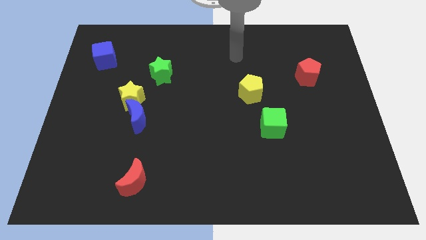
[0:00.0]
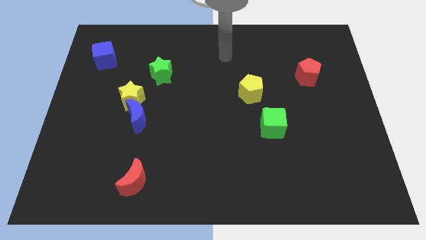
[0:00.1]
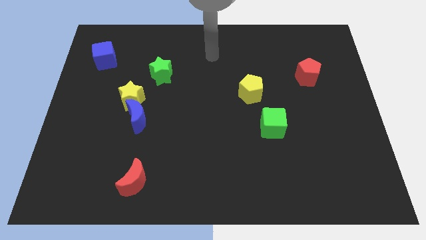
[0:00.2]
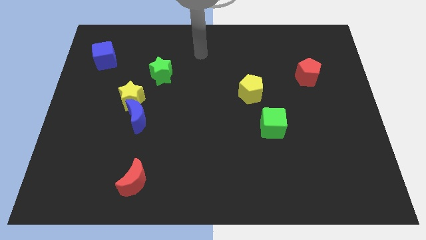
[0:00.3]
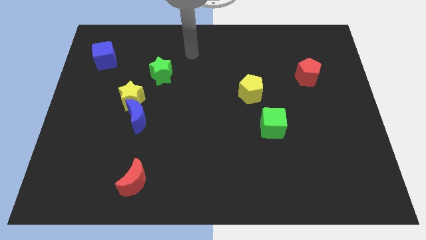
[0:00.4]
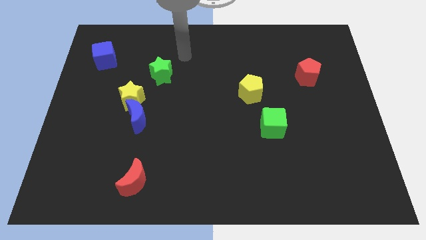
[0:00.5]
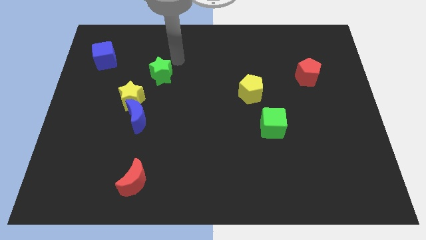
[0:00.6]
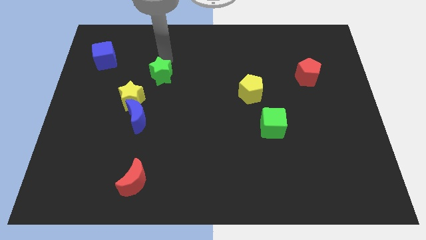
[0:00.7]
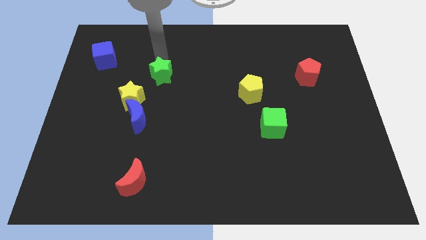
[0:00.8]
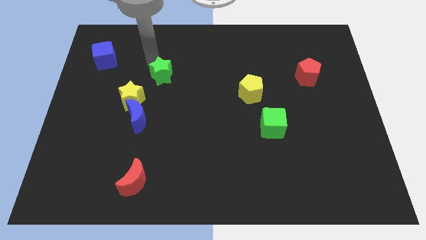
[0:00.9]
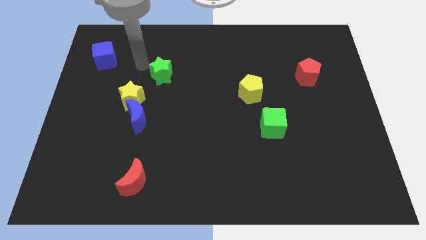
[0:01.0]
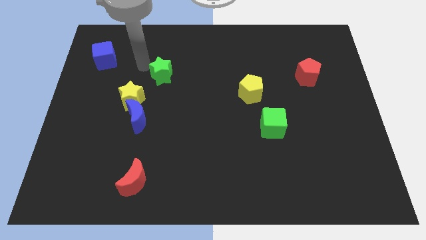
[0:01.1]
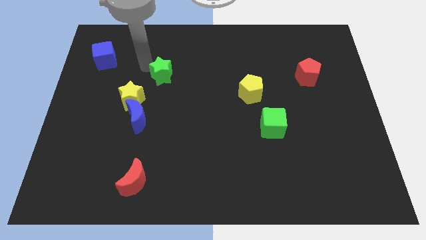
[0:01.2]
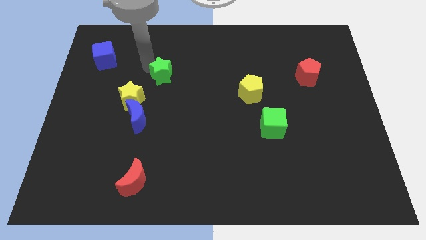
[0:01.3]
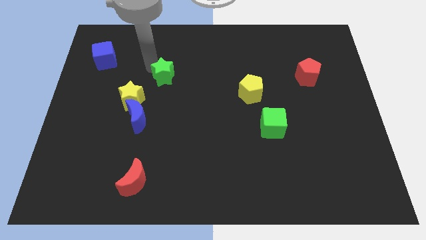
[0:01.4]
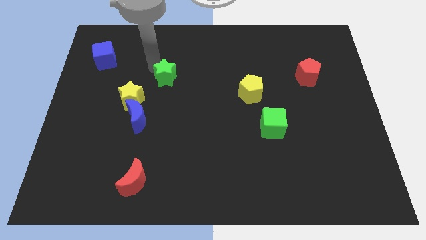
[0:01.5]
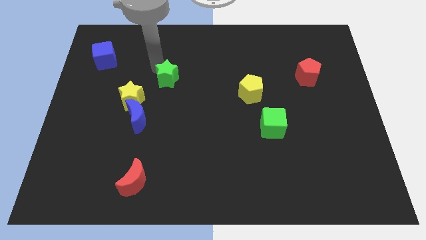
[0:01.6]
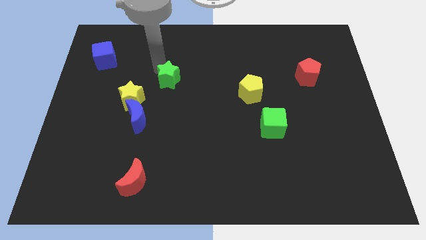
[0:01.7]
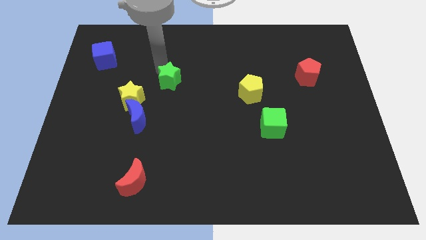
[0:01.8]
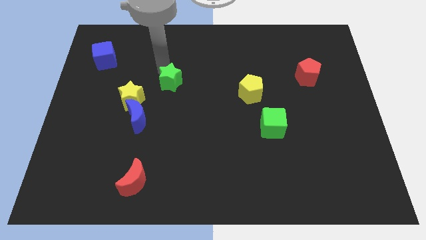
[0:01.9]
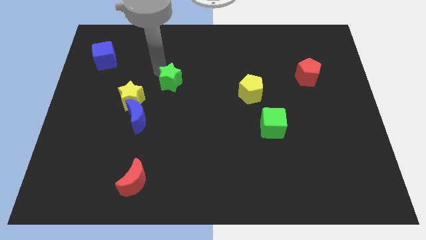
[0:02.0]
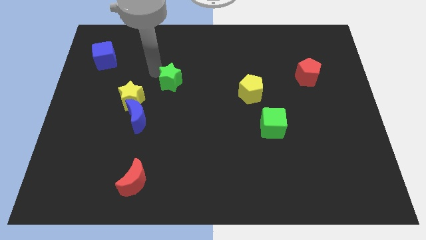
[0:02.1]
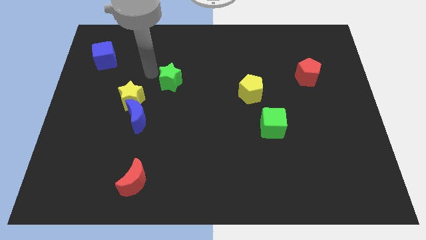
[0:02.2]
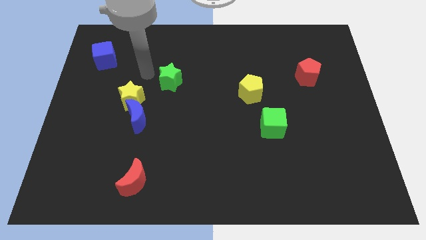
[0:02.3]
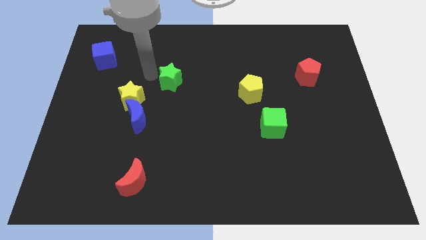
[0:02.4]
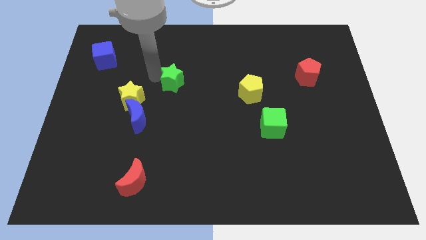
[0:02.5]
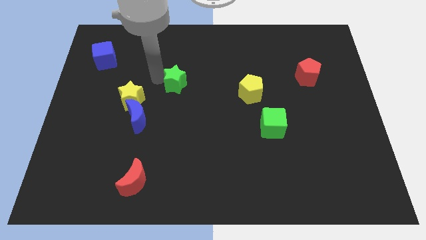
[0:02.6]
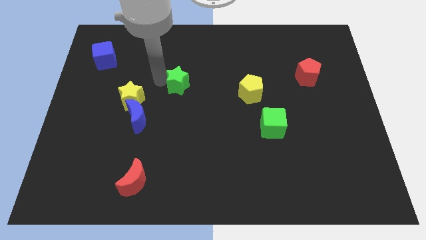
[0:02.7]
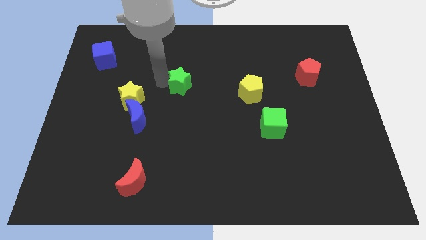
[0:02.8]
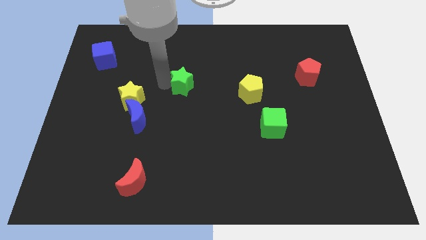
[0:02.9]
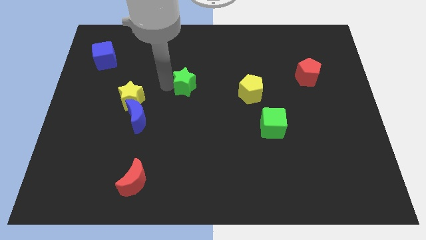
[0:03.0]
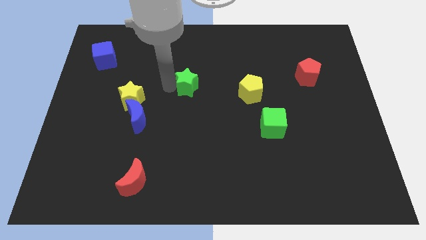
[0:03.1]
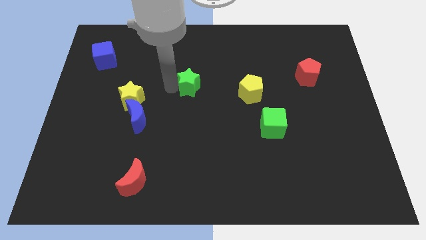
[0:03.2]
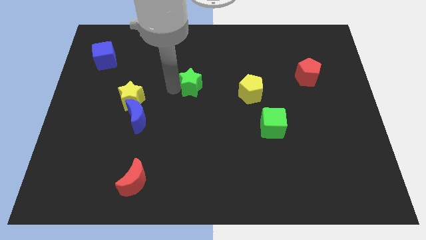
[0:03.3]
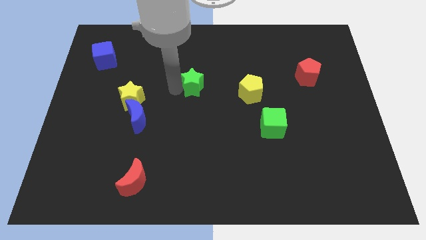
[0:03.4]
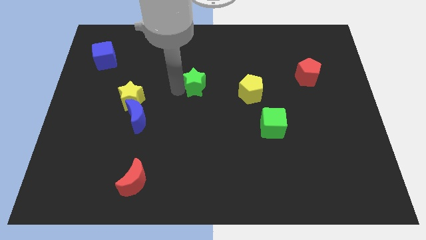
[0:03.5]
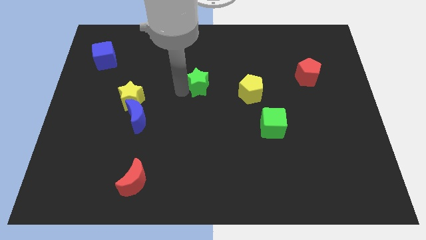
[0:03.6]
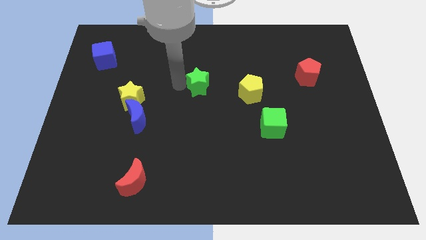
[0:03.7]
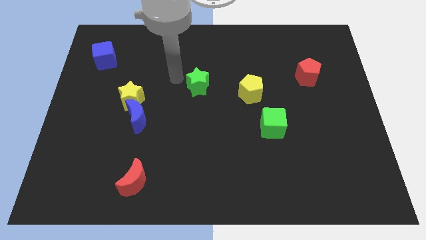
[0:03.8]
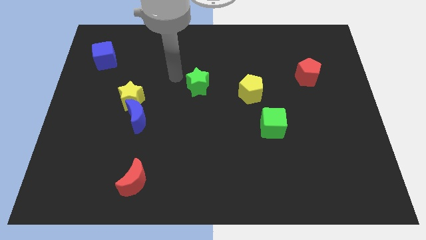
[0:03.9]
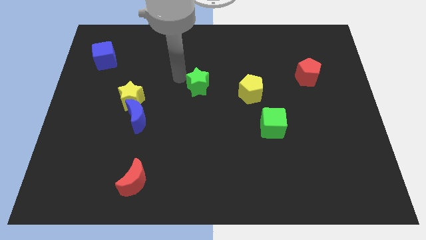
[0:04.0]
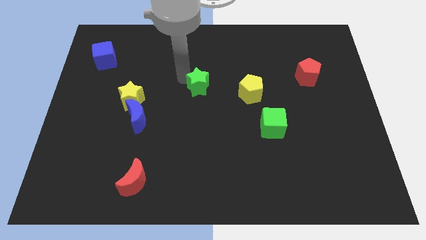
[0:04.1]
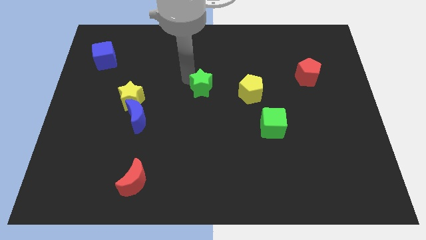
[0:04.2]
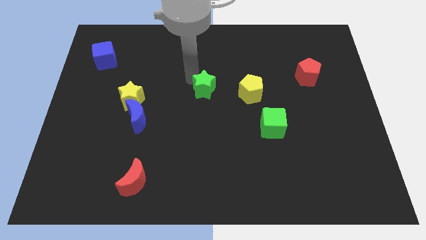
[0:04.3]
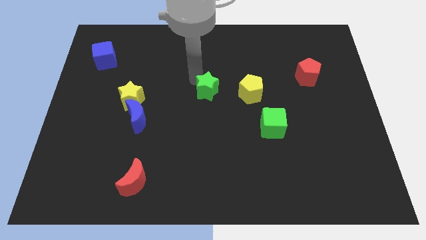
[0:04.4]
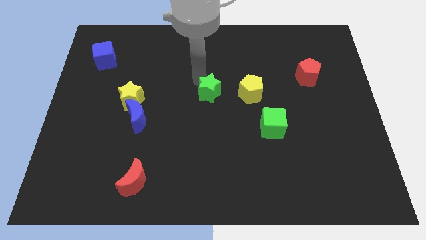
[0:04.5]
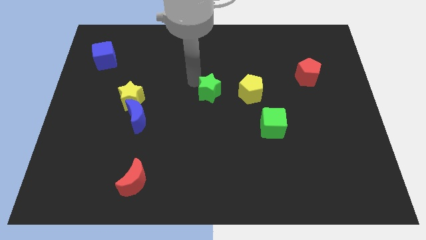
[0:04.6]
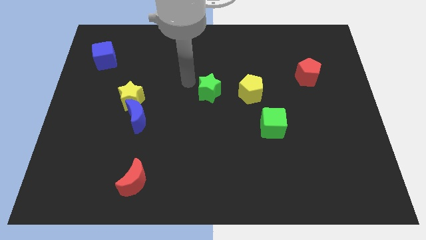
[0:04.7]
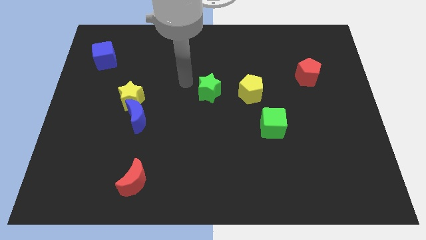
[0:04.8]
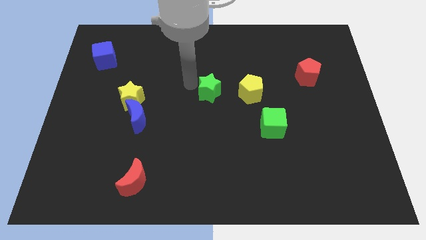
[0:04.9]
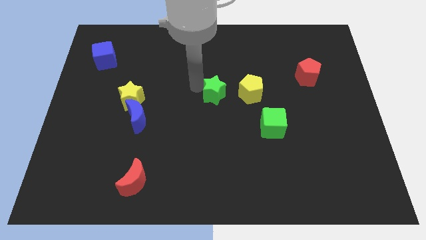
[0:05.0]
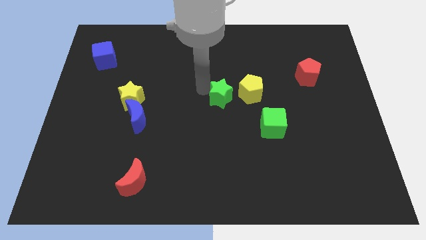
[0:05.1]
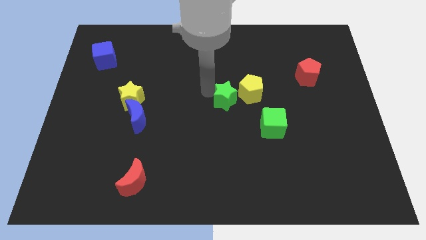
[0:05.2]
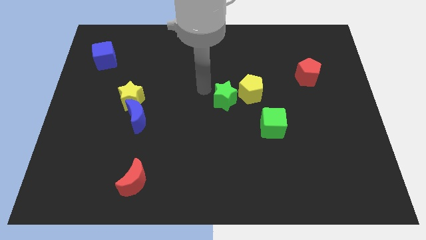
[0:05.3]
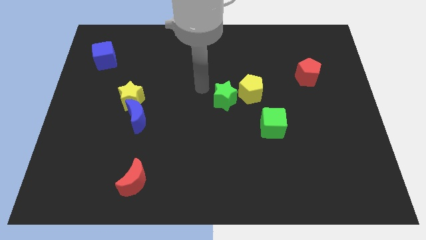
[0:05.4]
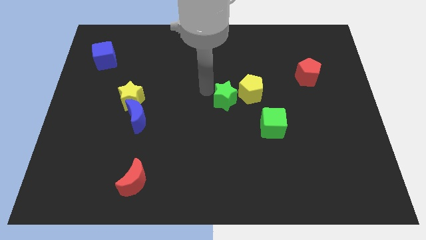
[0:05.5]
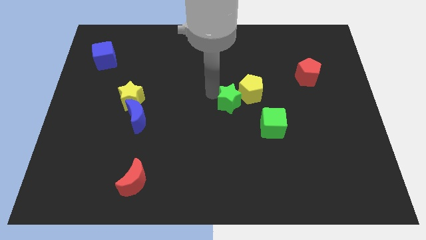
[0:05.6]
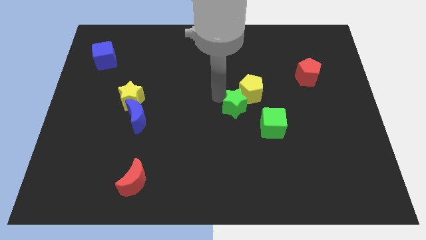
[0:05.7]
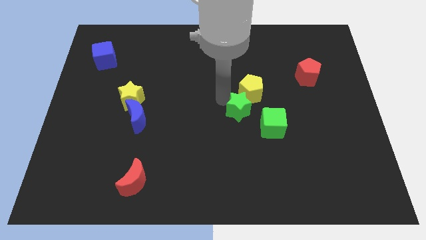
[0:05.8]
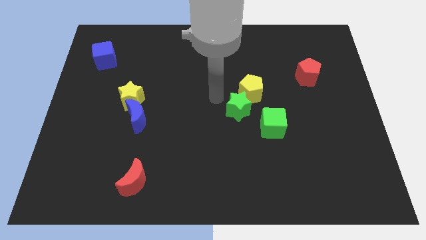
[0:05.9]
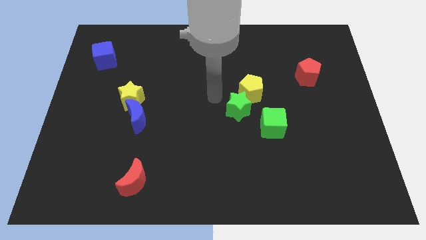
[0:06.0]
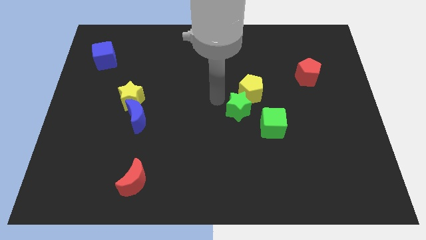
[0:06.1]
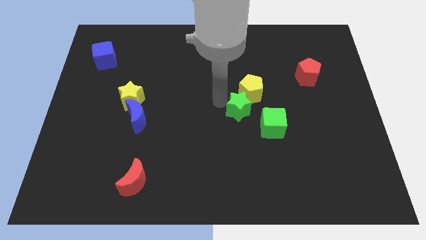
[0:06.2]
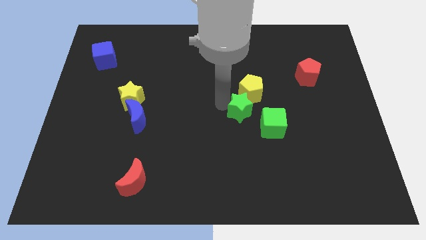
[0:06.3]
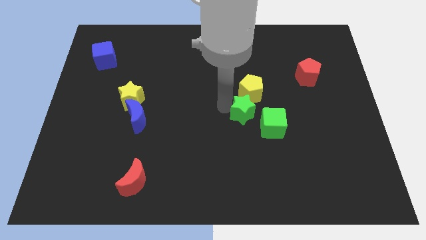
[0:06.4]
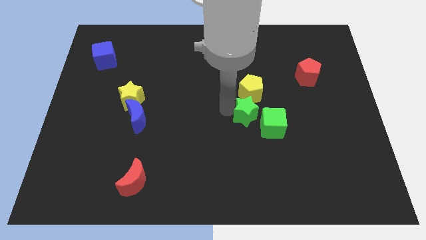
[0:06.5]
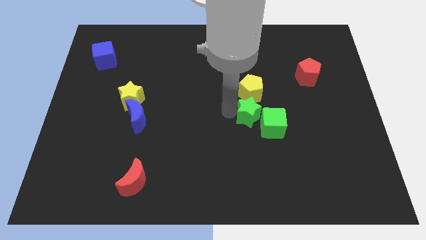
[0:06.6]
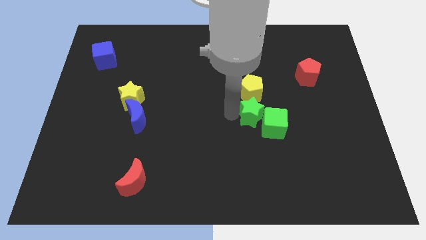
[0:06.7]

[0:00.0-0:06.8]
slide the green star to the green cube

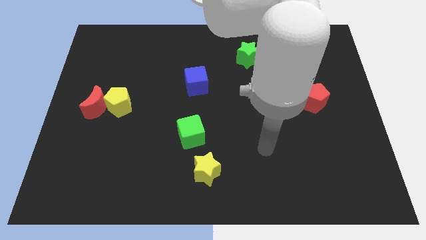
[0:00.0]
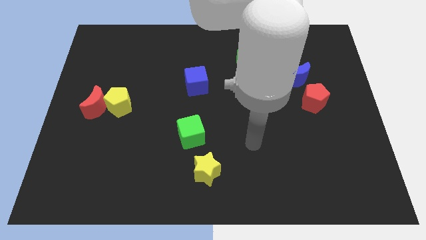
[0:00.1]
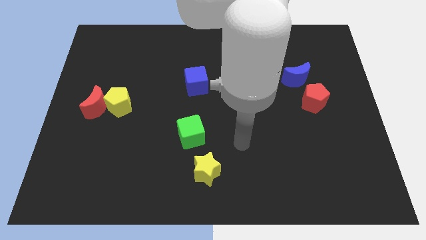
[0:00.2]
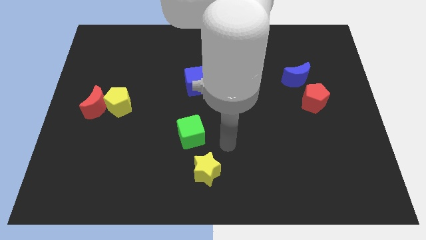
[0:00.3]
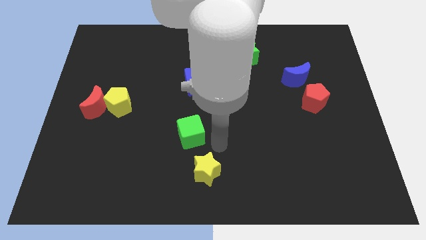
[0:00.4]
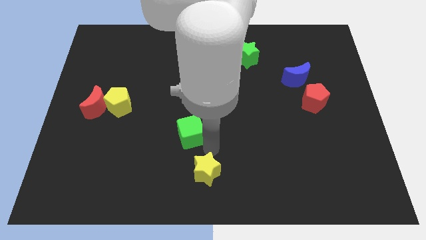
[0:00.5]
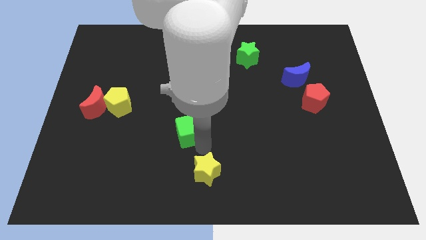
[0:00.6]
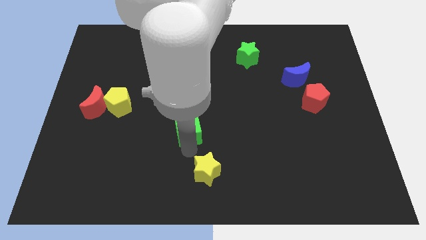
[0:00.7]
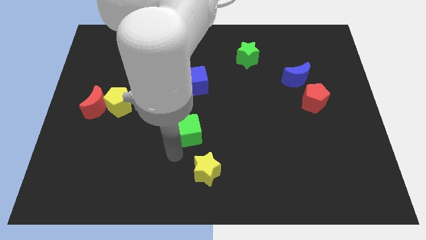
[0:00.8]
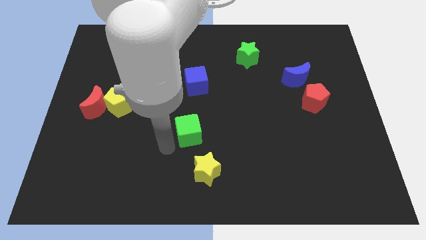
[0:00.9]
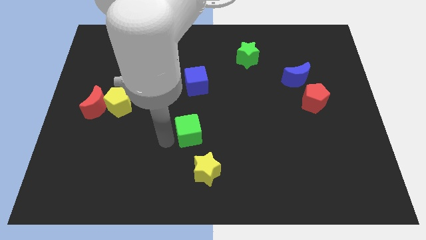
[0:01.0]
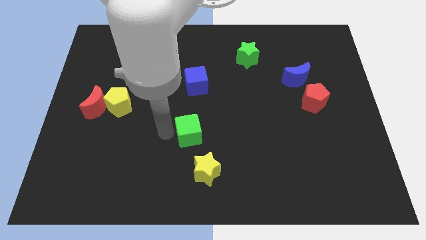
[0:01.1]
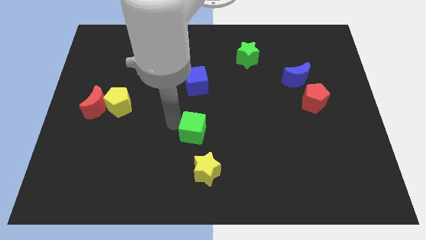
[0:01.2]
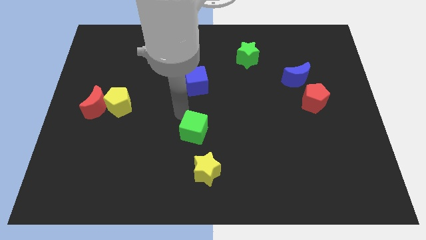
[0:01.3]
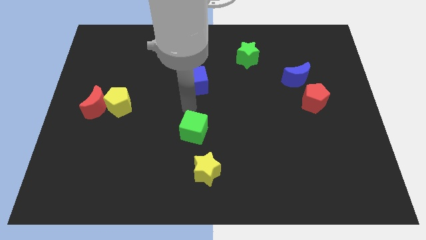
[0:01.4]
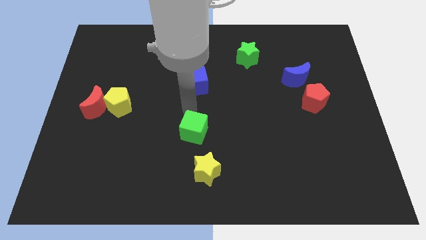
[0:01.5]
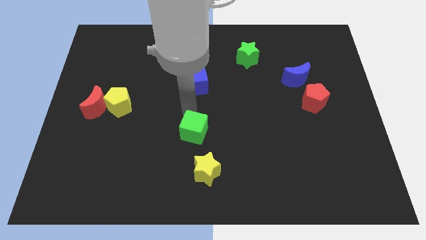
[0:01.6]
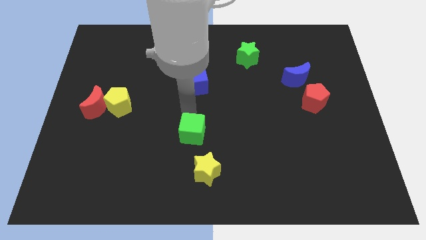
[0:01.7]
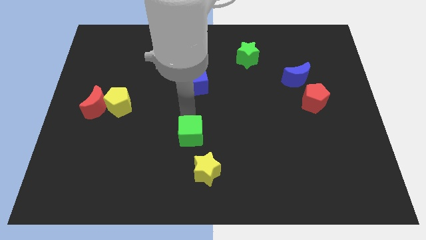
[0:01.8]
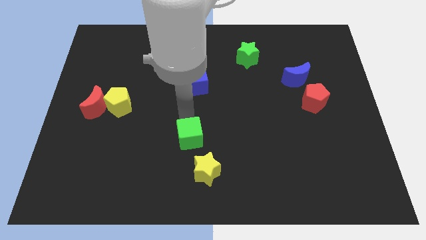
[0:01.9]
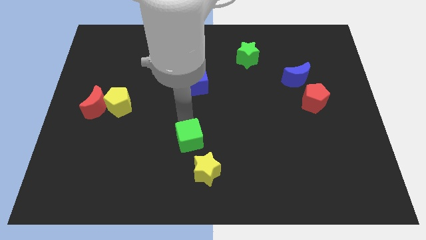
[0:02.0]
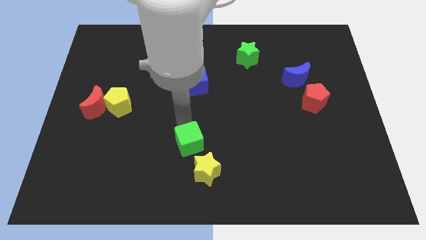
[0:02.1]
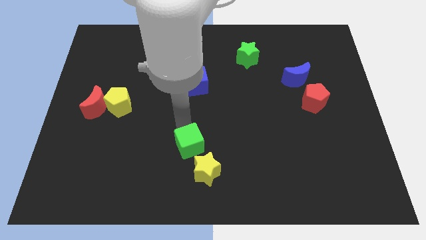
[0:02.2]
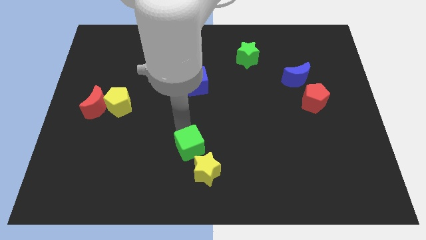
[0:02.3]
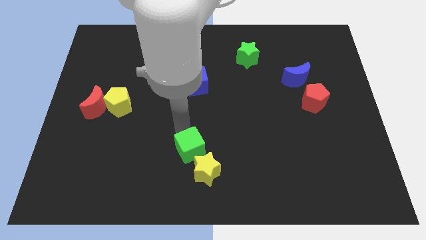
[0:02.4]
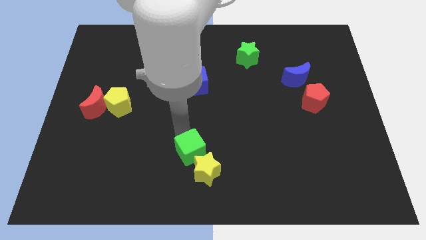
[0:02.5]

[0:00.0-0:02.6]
push the green cube close to the yellow star
